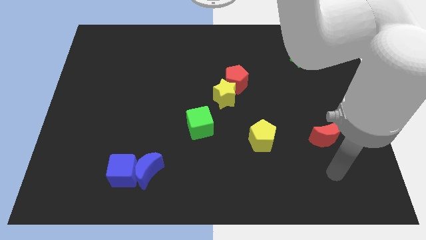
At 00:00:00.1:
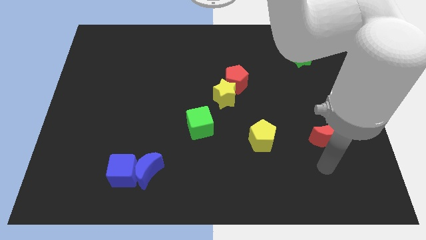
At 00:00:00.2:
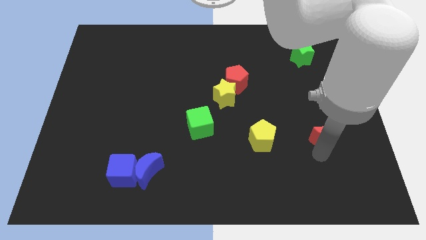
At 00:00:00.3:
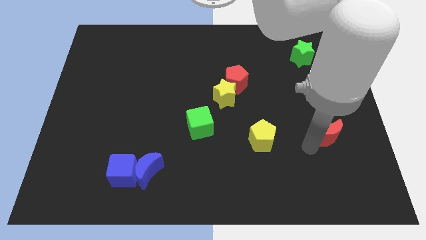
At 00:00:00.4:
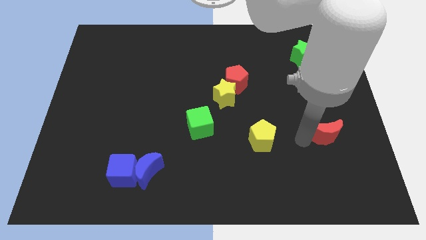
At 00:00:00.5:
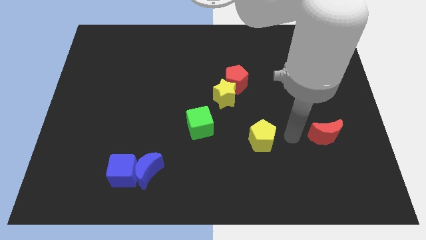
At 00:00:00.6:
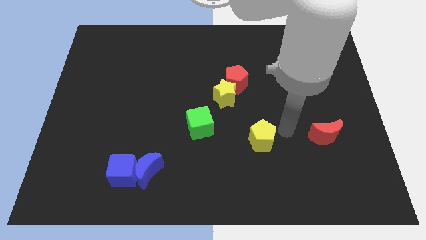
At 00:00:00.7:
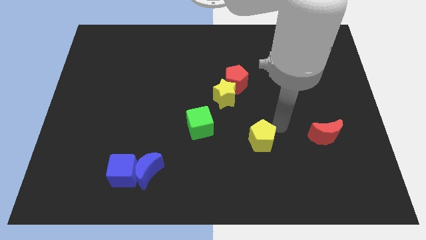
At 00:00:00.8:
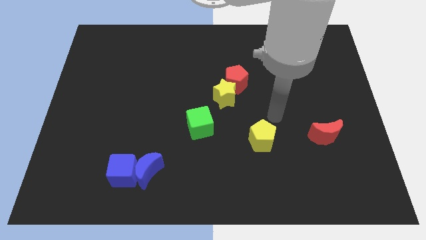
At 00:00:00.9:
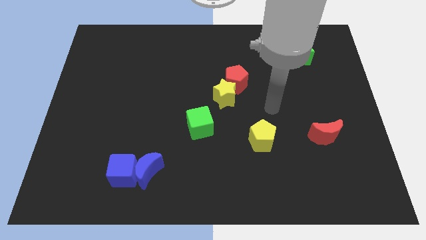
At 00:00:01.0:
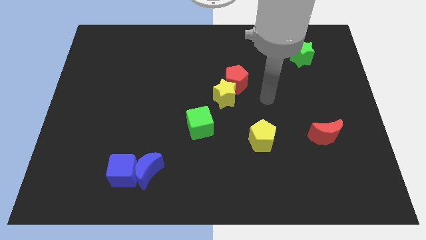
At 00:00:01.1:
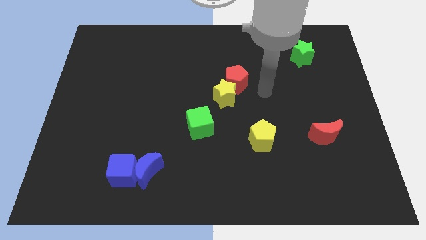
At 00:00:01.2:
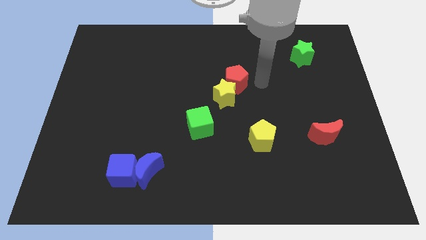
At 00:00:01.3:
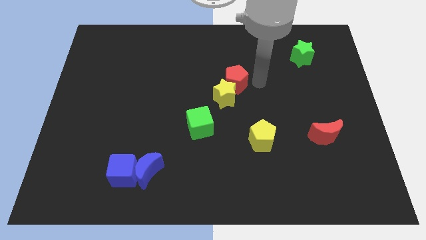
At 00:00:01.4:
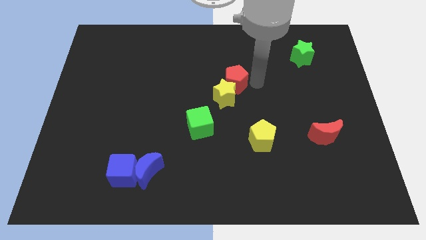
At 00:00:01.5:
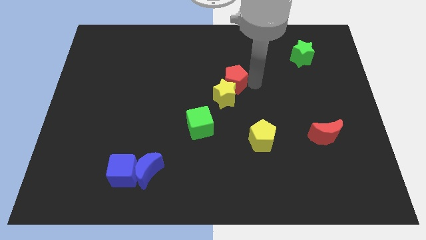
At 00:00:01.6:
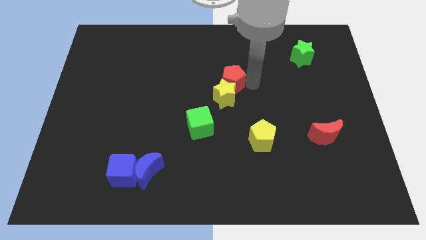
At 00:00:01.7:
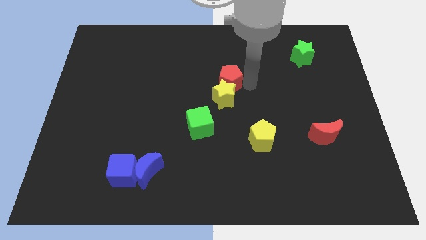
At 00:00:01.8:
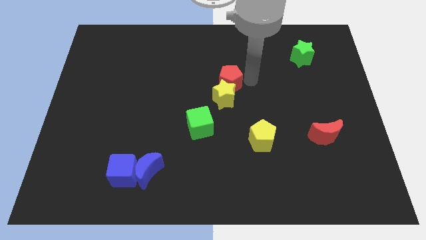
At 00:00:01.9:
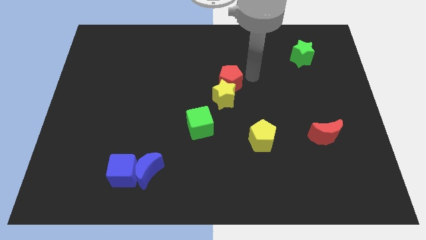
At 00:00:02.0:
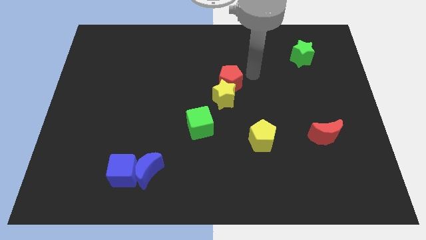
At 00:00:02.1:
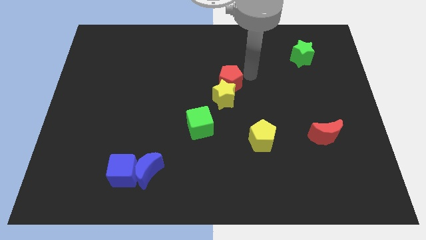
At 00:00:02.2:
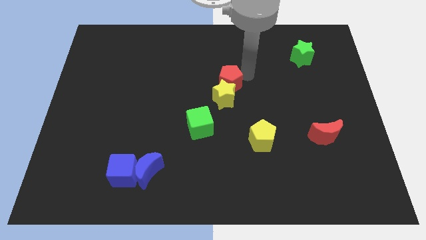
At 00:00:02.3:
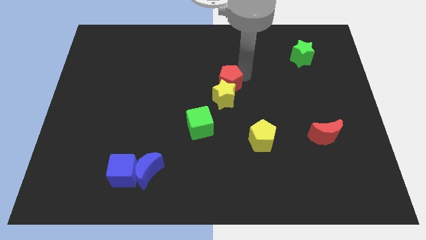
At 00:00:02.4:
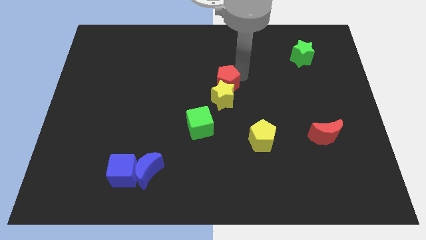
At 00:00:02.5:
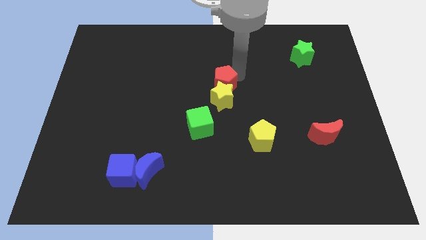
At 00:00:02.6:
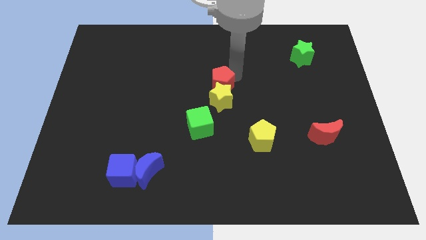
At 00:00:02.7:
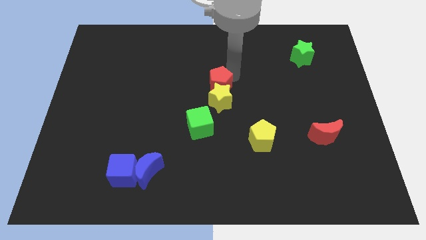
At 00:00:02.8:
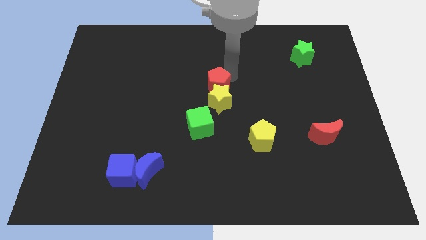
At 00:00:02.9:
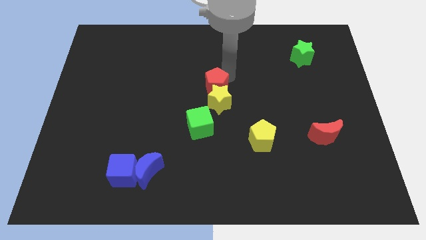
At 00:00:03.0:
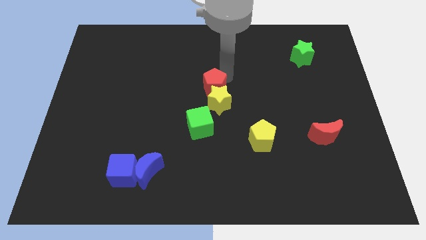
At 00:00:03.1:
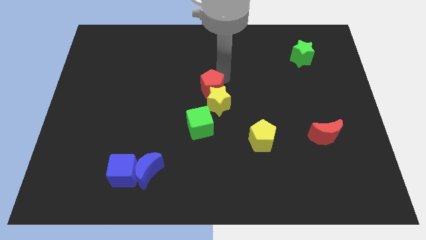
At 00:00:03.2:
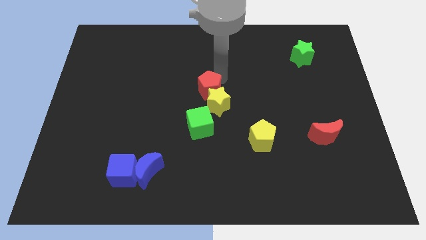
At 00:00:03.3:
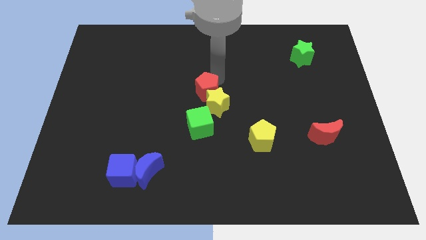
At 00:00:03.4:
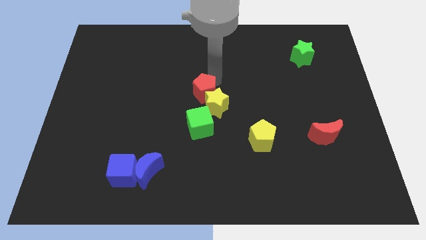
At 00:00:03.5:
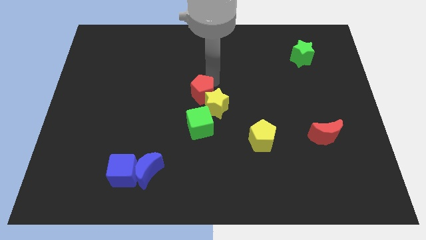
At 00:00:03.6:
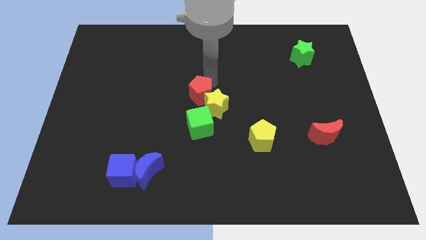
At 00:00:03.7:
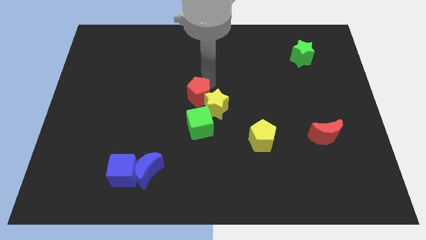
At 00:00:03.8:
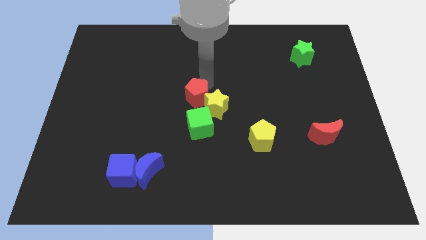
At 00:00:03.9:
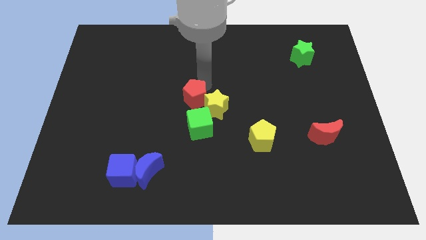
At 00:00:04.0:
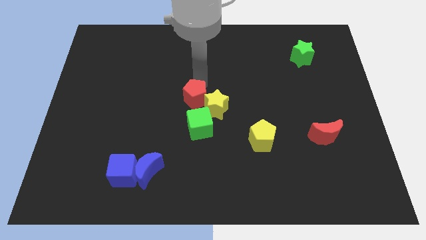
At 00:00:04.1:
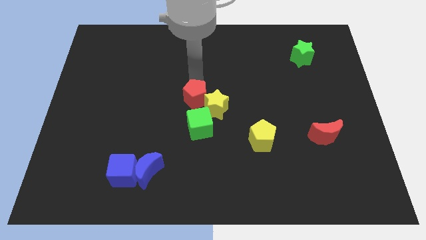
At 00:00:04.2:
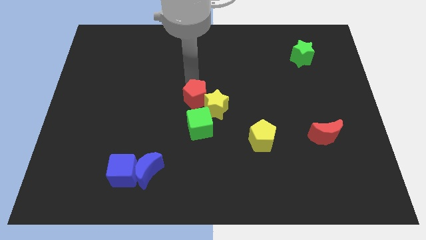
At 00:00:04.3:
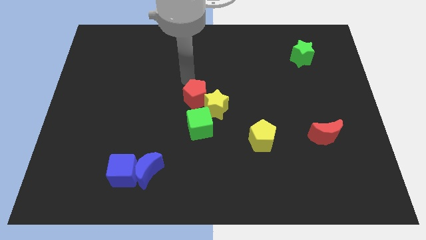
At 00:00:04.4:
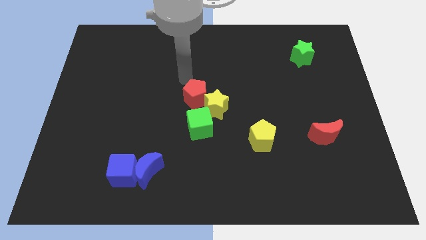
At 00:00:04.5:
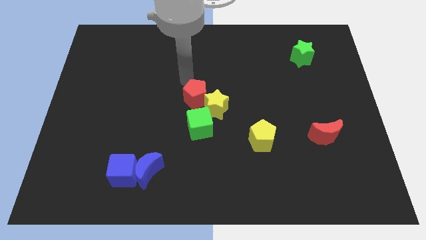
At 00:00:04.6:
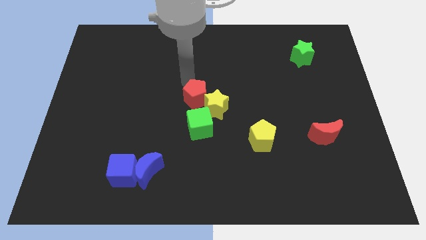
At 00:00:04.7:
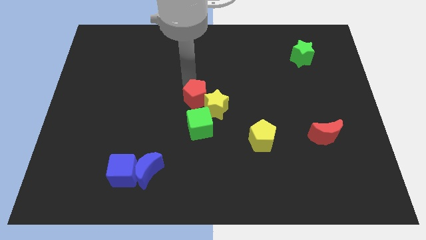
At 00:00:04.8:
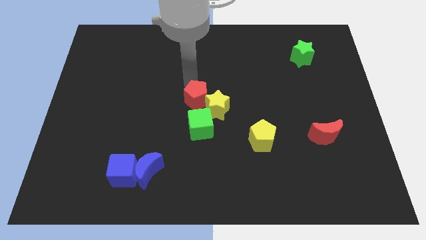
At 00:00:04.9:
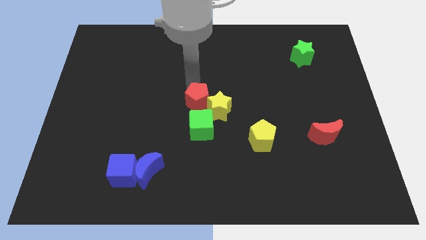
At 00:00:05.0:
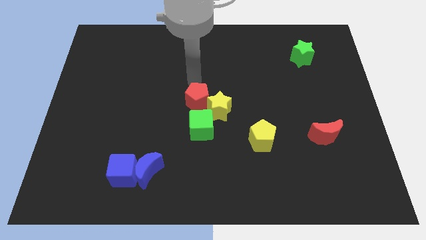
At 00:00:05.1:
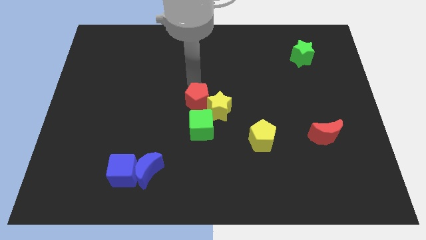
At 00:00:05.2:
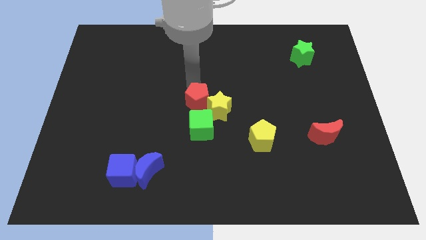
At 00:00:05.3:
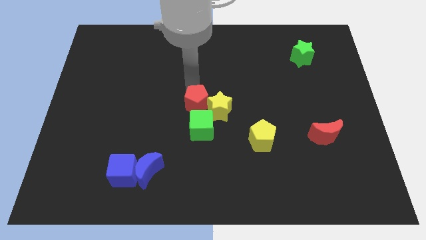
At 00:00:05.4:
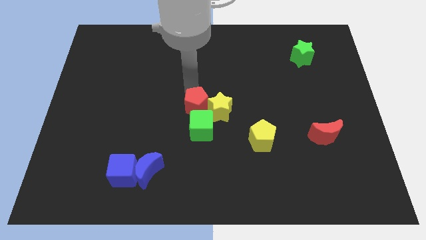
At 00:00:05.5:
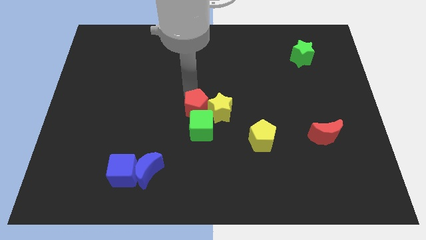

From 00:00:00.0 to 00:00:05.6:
put the red pentagon towards the green cube

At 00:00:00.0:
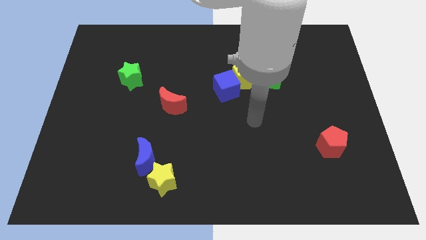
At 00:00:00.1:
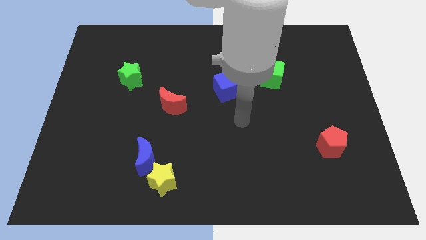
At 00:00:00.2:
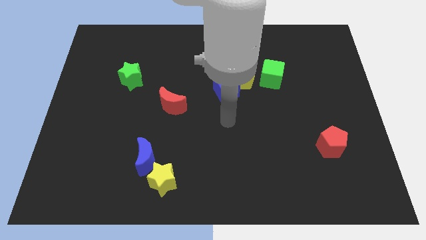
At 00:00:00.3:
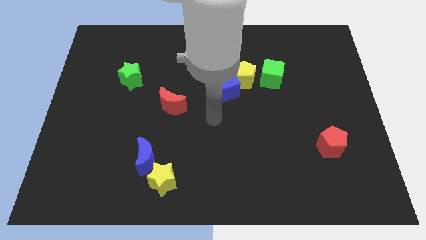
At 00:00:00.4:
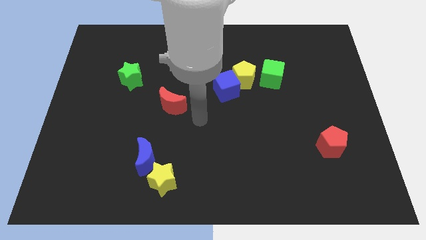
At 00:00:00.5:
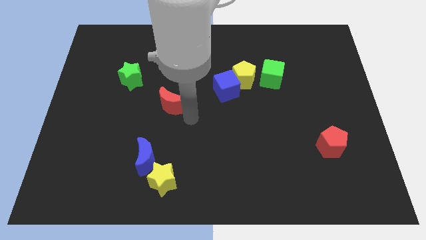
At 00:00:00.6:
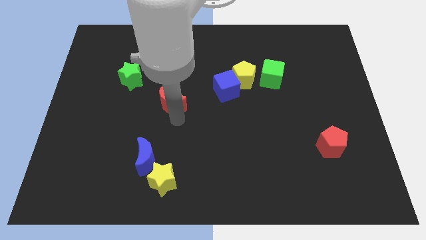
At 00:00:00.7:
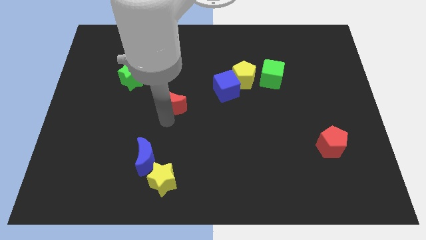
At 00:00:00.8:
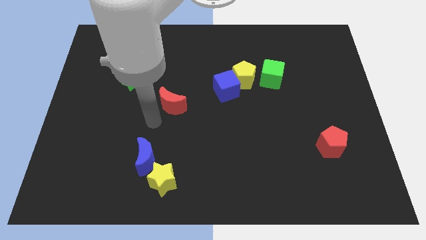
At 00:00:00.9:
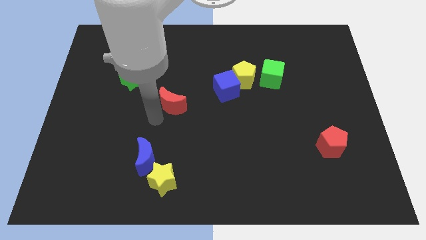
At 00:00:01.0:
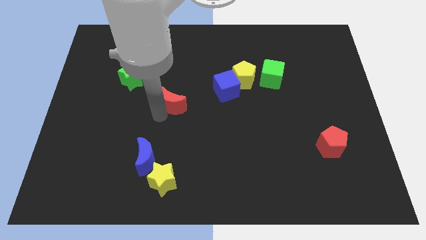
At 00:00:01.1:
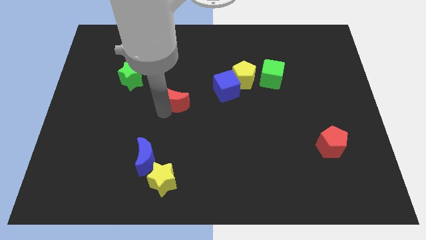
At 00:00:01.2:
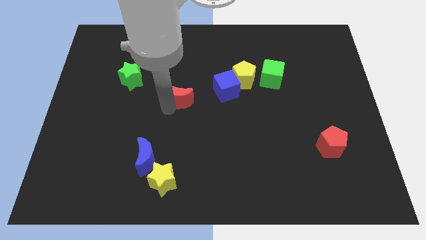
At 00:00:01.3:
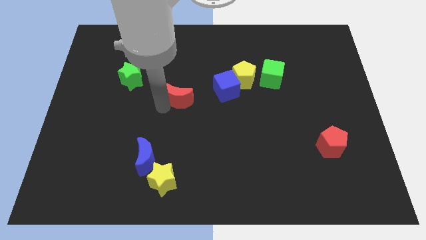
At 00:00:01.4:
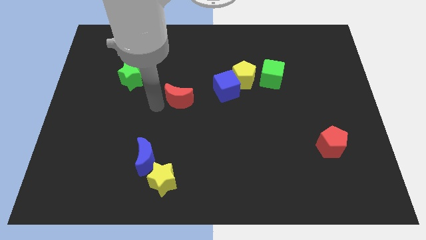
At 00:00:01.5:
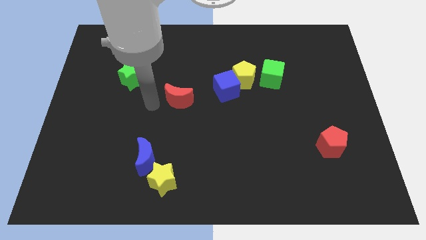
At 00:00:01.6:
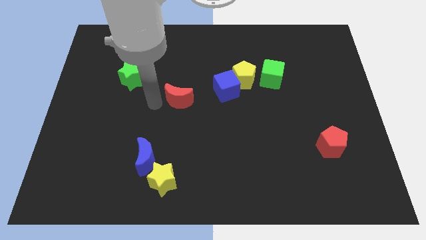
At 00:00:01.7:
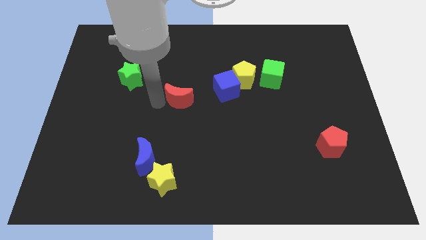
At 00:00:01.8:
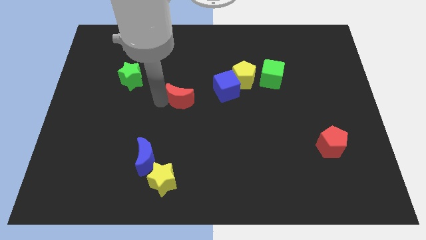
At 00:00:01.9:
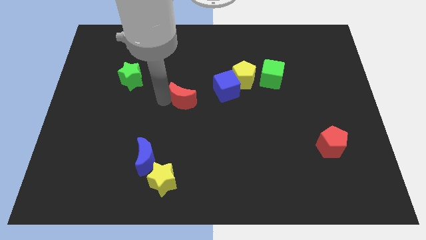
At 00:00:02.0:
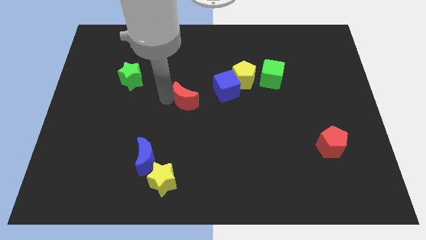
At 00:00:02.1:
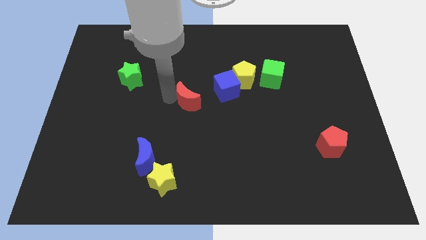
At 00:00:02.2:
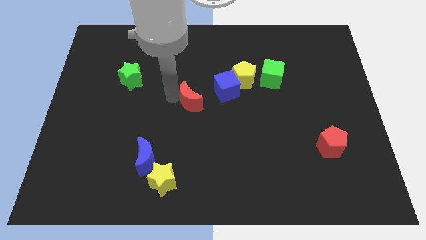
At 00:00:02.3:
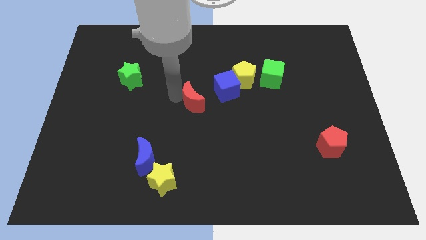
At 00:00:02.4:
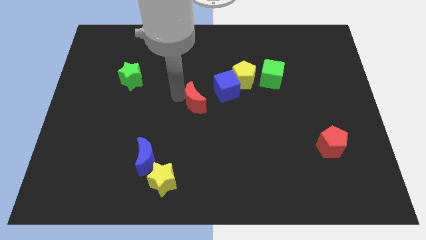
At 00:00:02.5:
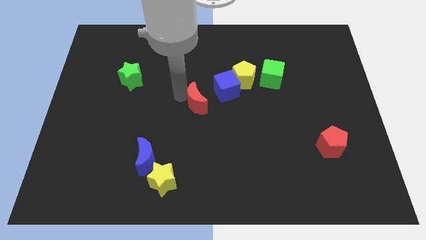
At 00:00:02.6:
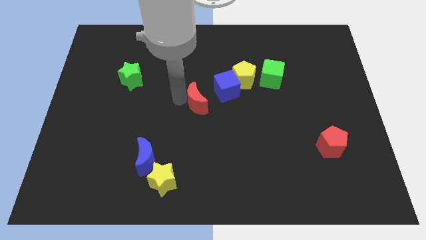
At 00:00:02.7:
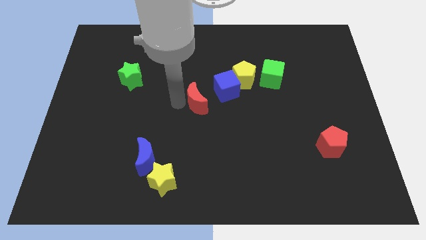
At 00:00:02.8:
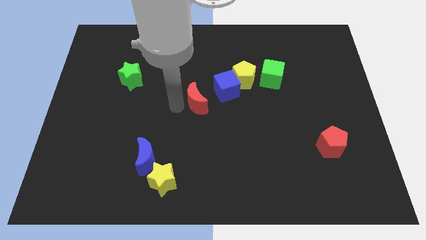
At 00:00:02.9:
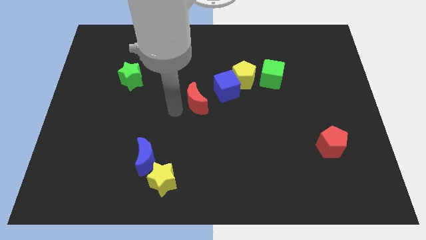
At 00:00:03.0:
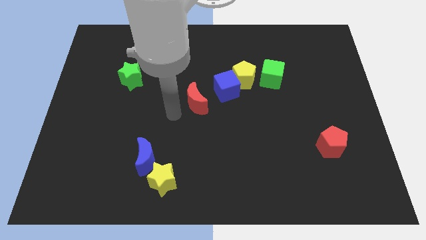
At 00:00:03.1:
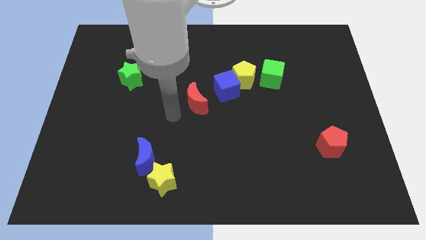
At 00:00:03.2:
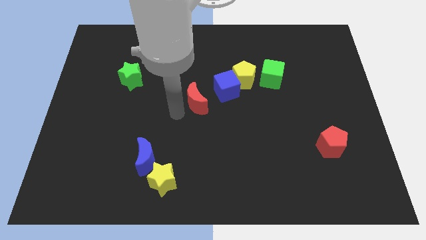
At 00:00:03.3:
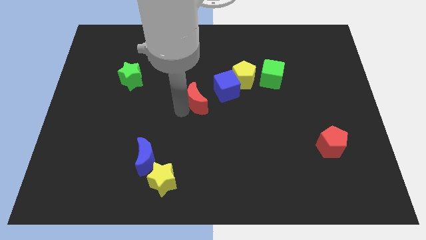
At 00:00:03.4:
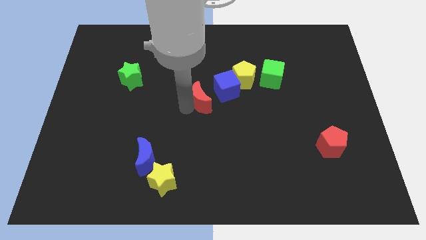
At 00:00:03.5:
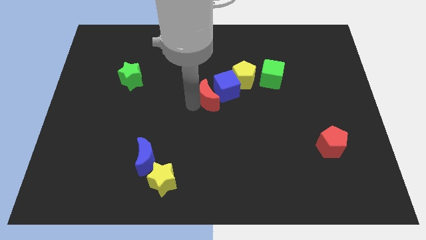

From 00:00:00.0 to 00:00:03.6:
slide the red moon next to the blue cube
